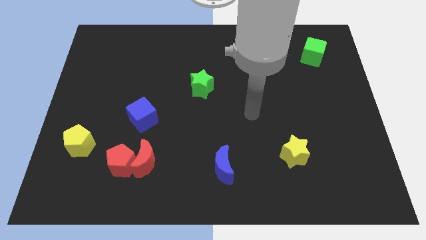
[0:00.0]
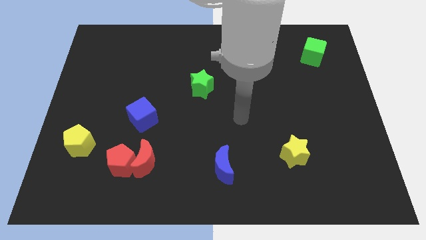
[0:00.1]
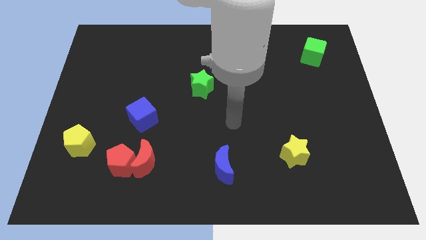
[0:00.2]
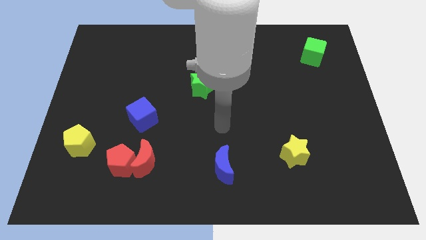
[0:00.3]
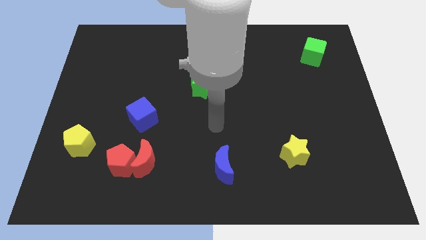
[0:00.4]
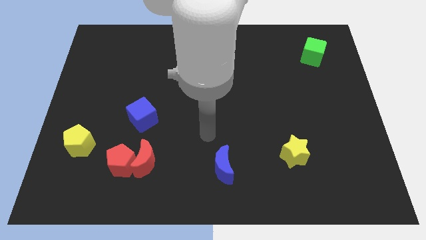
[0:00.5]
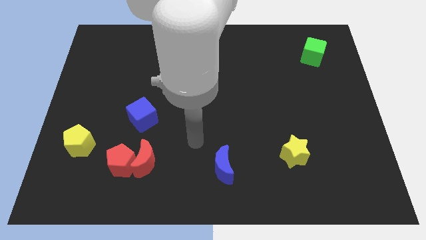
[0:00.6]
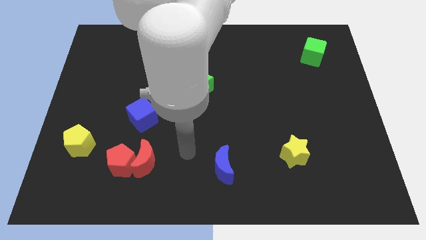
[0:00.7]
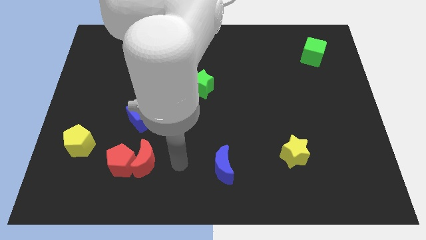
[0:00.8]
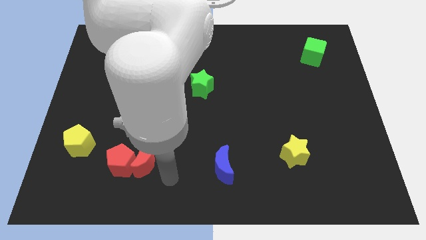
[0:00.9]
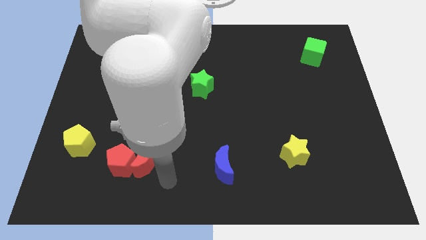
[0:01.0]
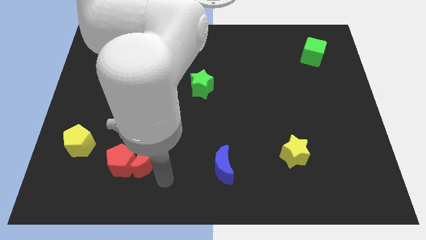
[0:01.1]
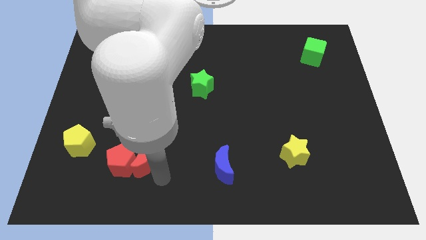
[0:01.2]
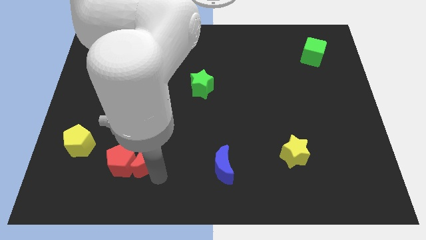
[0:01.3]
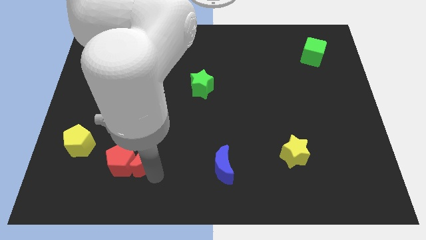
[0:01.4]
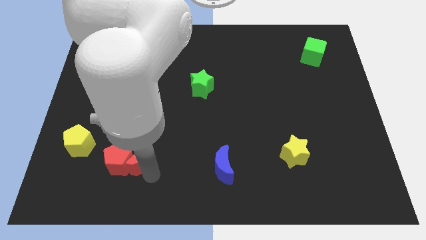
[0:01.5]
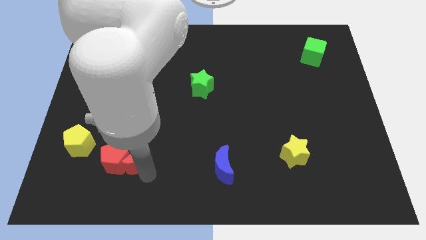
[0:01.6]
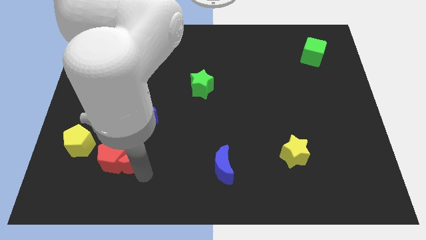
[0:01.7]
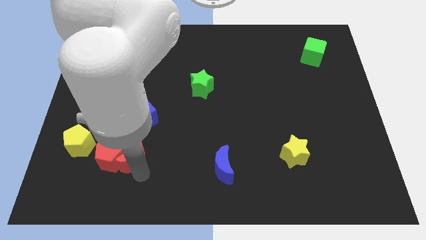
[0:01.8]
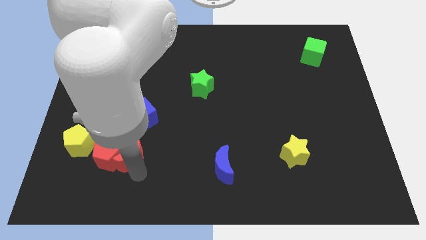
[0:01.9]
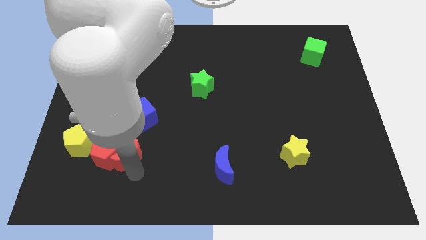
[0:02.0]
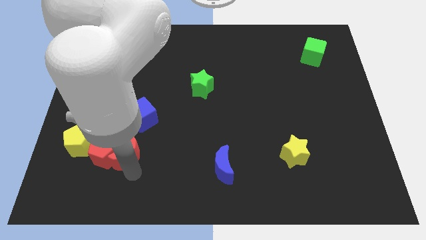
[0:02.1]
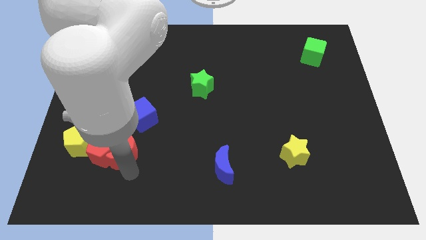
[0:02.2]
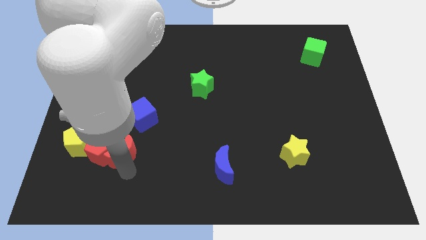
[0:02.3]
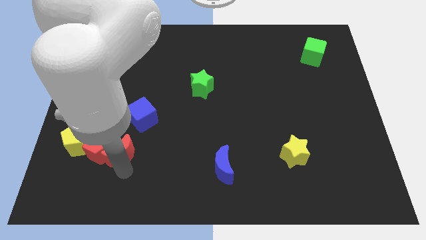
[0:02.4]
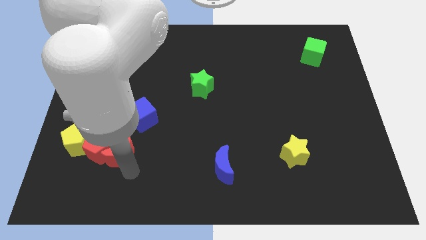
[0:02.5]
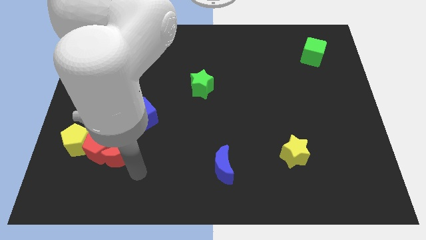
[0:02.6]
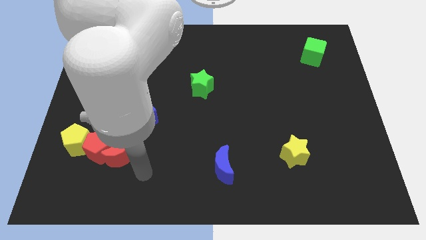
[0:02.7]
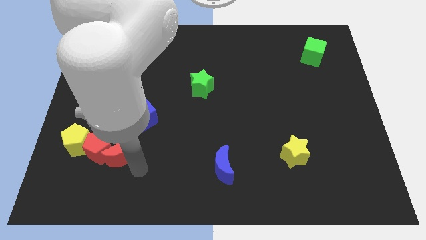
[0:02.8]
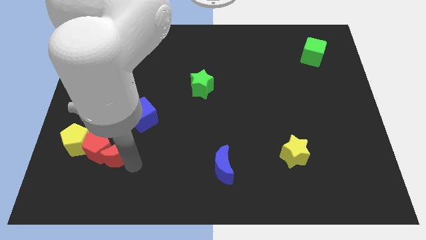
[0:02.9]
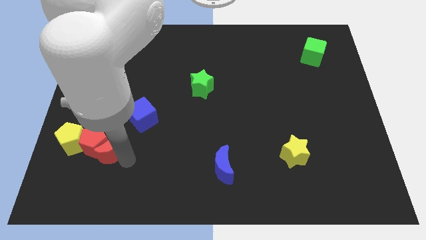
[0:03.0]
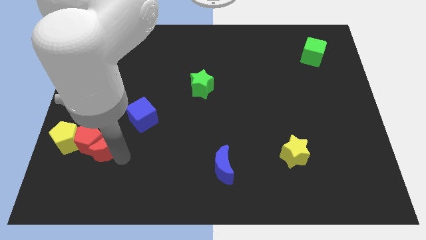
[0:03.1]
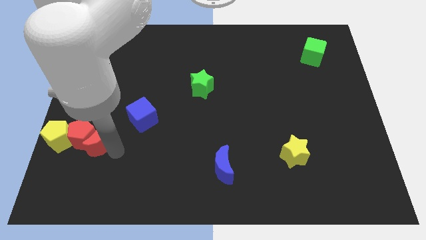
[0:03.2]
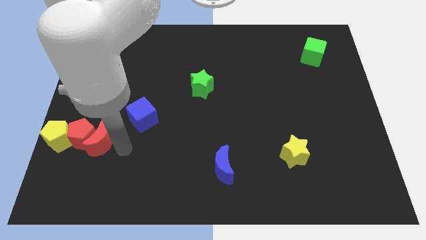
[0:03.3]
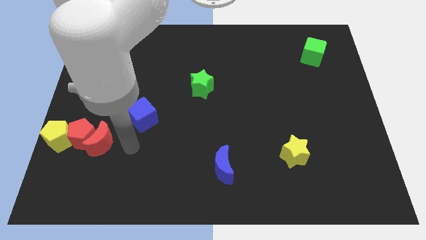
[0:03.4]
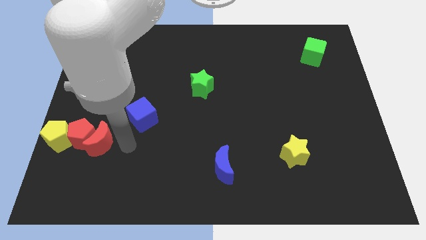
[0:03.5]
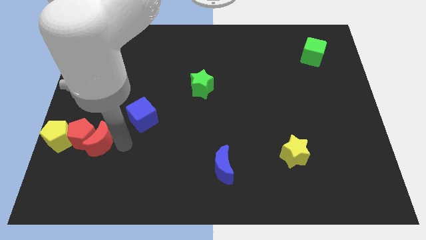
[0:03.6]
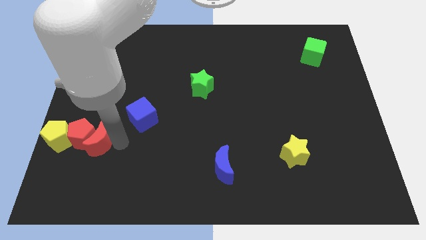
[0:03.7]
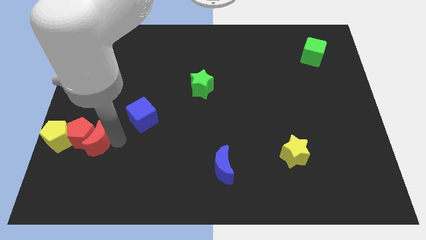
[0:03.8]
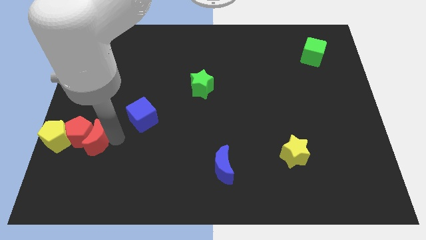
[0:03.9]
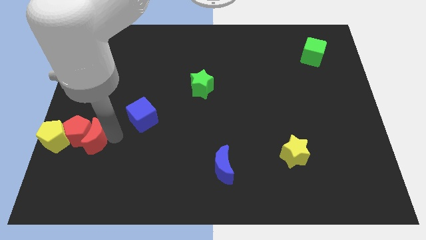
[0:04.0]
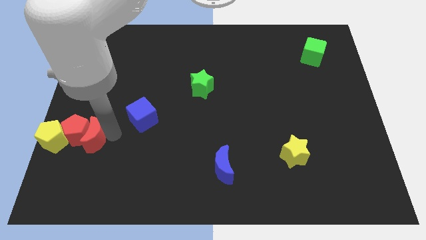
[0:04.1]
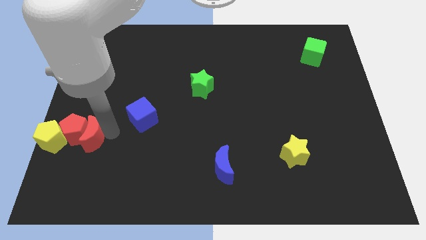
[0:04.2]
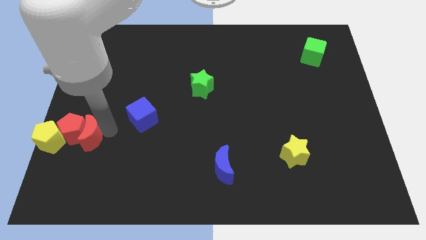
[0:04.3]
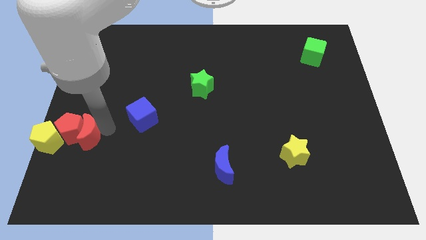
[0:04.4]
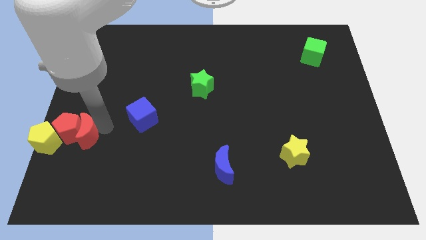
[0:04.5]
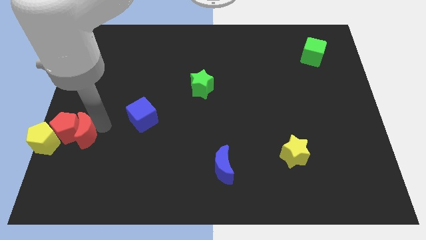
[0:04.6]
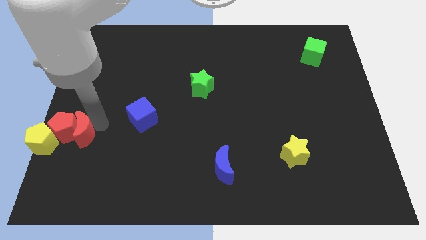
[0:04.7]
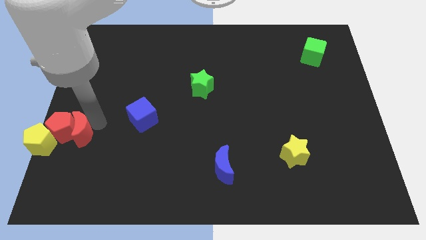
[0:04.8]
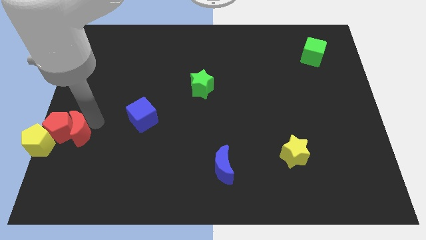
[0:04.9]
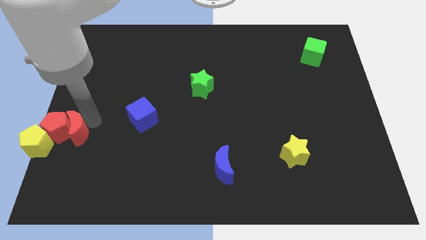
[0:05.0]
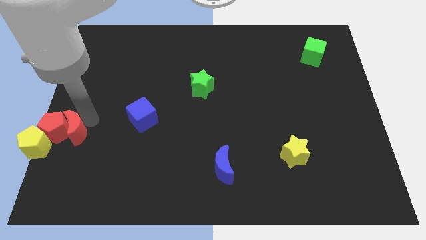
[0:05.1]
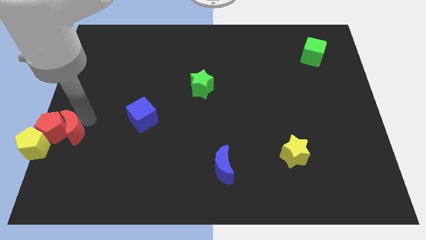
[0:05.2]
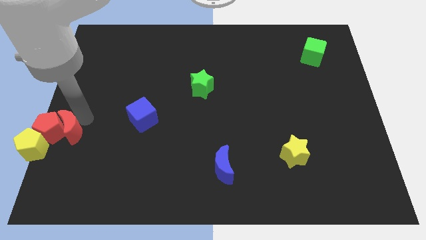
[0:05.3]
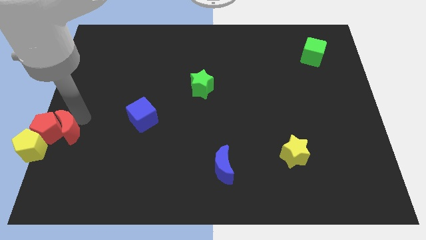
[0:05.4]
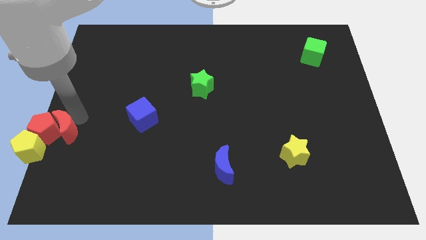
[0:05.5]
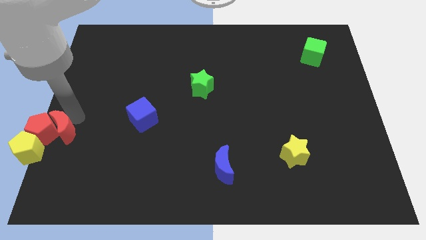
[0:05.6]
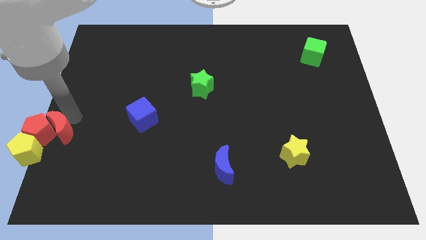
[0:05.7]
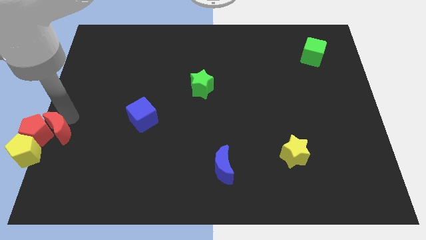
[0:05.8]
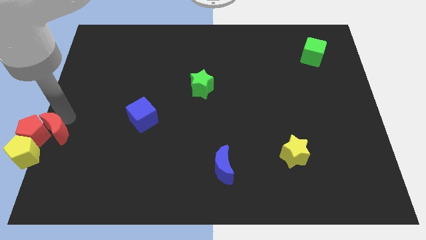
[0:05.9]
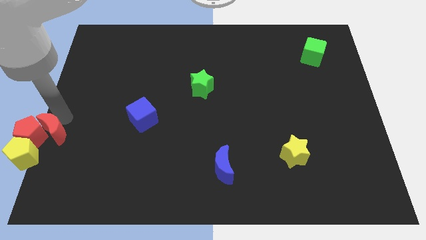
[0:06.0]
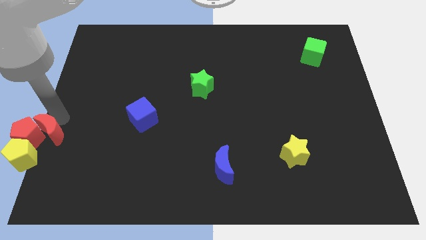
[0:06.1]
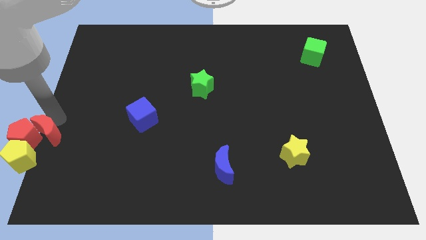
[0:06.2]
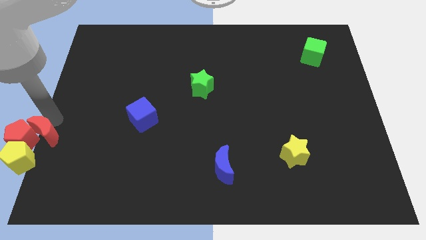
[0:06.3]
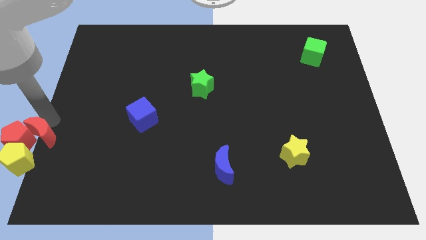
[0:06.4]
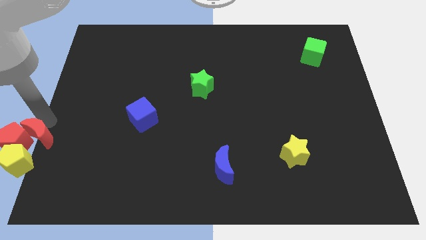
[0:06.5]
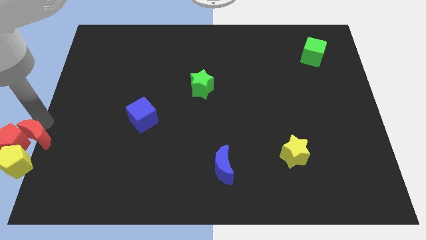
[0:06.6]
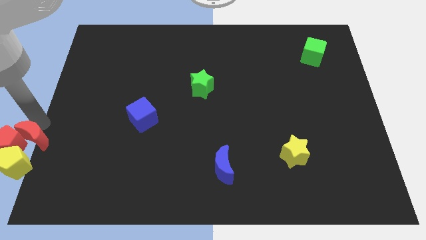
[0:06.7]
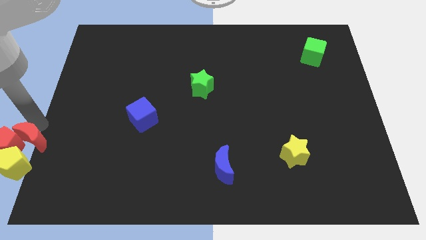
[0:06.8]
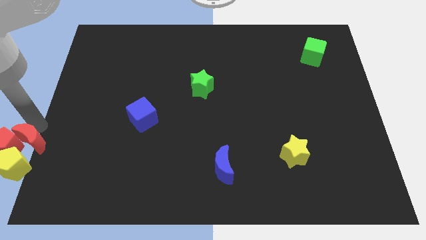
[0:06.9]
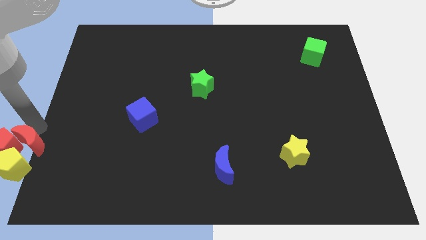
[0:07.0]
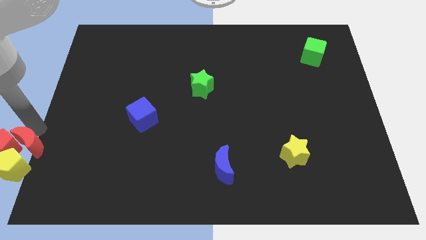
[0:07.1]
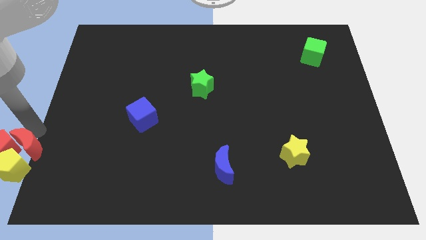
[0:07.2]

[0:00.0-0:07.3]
slide the red moon close to the yellow pentagon
